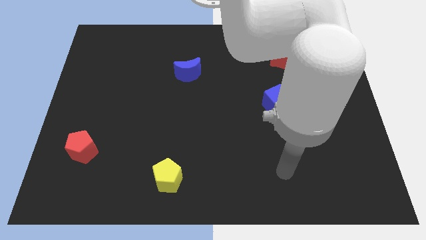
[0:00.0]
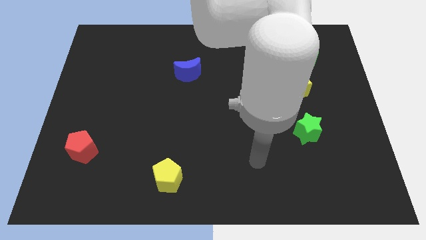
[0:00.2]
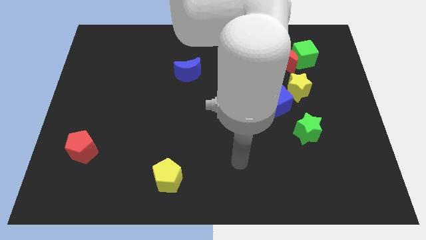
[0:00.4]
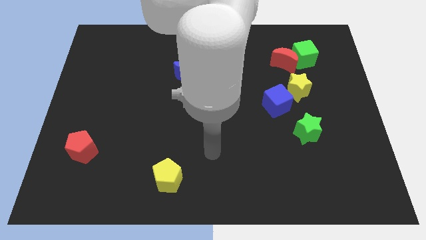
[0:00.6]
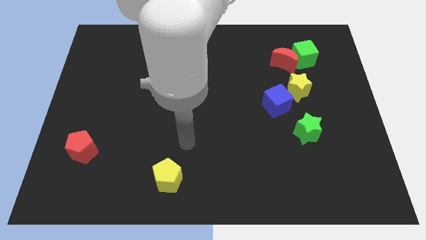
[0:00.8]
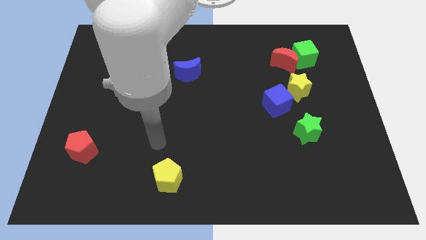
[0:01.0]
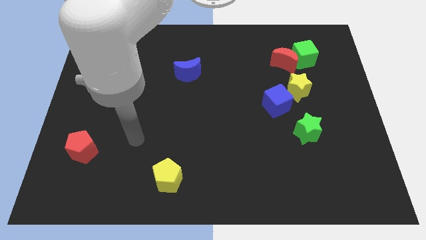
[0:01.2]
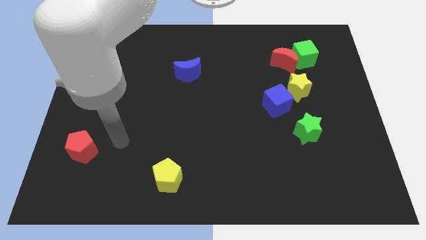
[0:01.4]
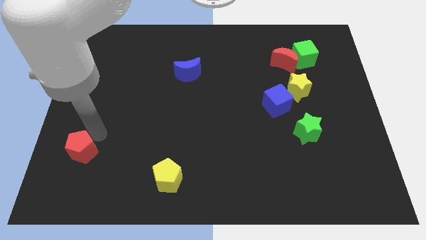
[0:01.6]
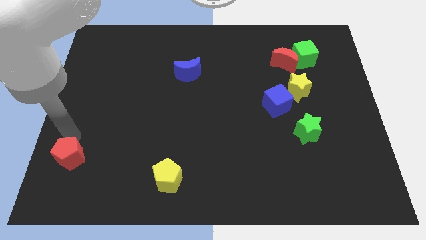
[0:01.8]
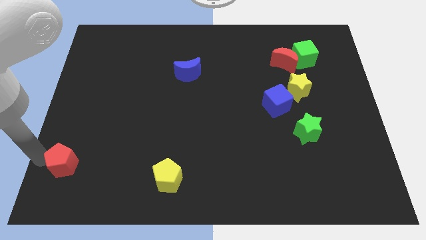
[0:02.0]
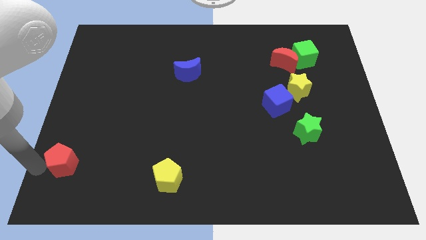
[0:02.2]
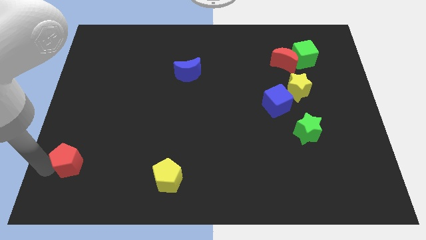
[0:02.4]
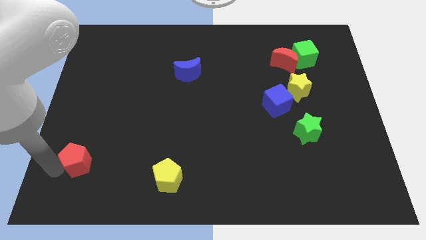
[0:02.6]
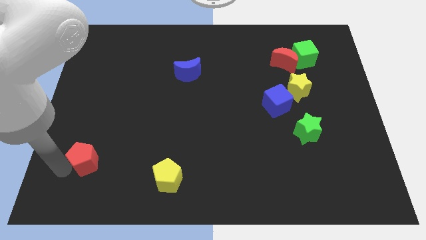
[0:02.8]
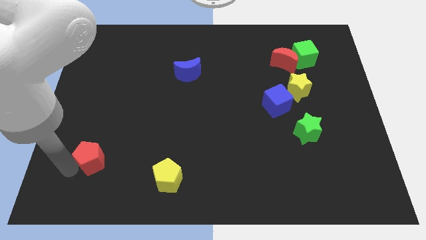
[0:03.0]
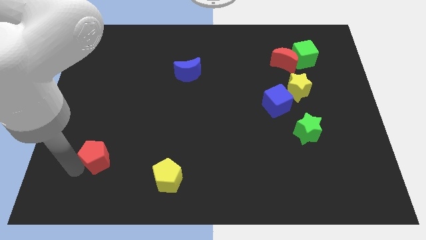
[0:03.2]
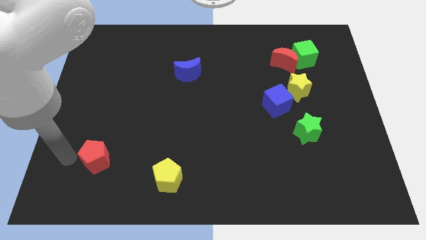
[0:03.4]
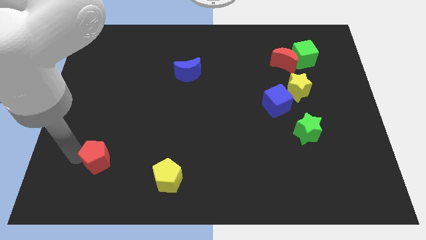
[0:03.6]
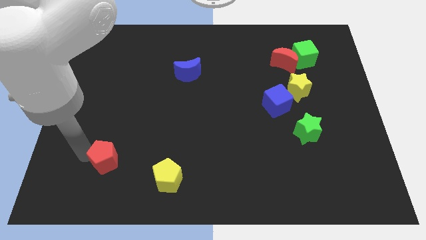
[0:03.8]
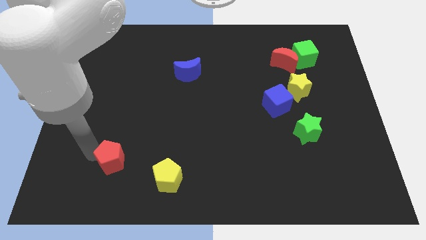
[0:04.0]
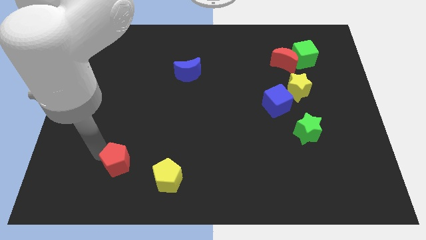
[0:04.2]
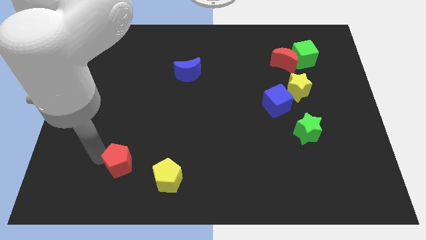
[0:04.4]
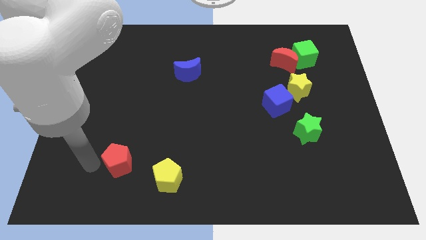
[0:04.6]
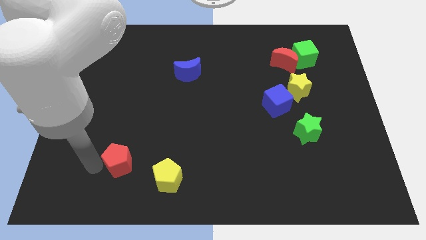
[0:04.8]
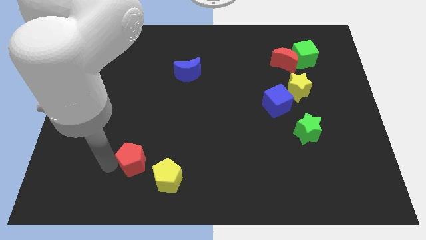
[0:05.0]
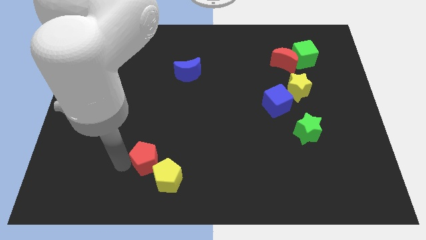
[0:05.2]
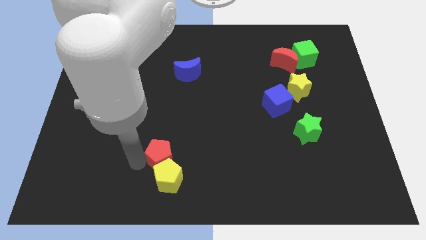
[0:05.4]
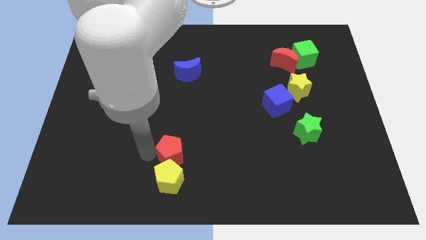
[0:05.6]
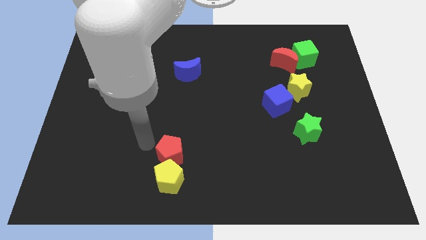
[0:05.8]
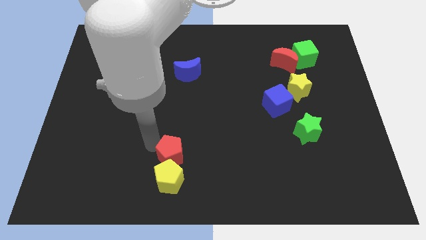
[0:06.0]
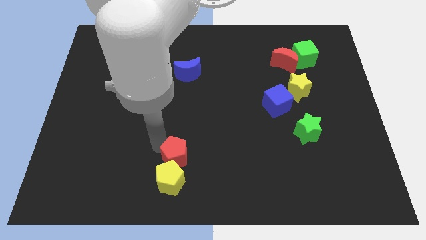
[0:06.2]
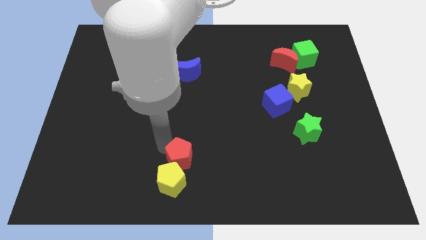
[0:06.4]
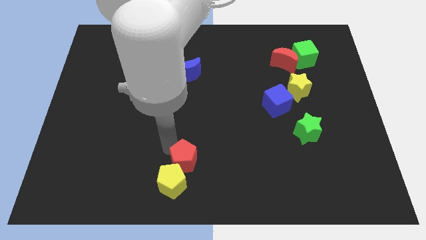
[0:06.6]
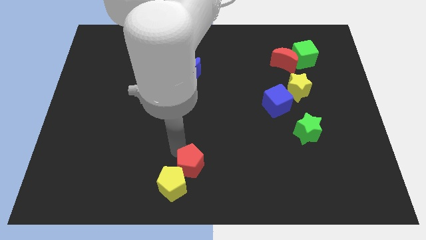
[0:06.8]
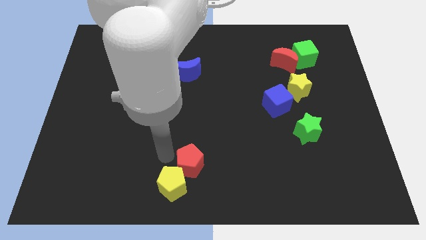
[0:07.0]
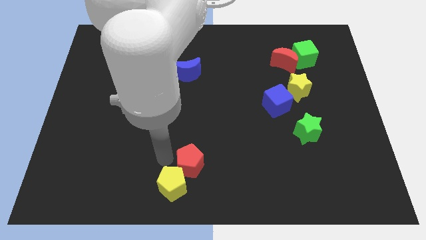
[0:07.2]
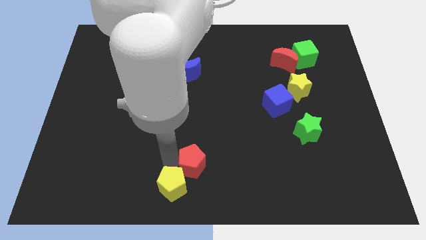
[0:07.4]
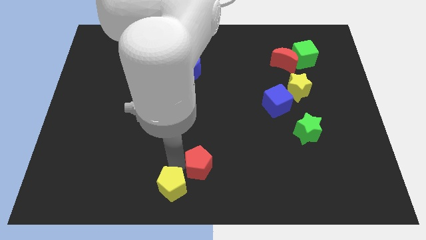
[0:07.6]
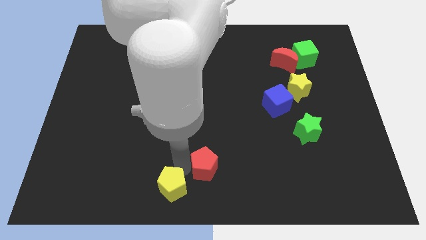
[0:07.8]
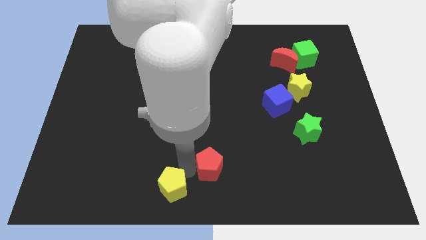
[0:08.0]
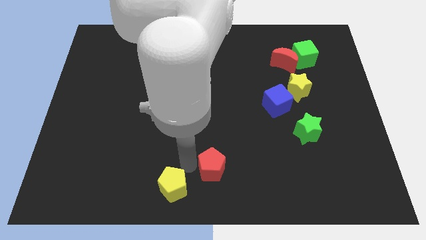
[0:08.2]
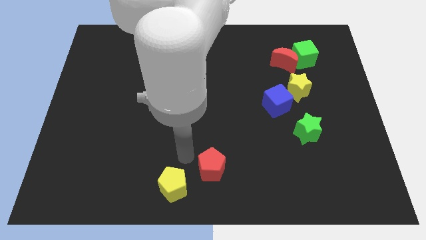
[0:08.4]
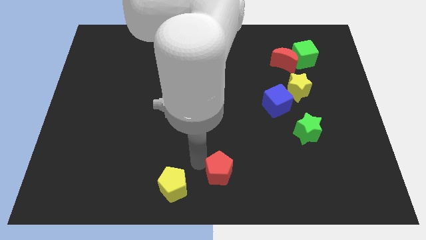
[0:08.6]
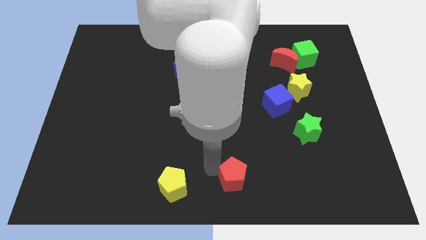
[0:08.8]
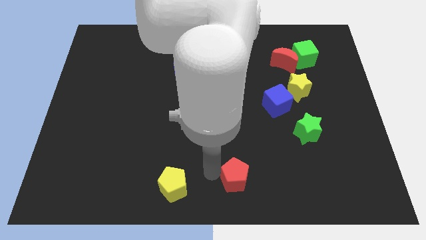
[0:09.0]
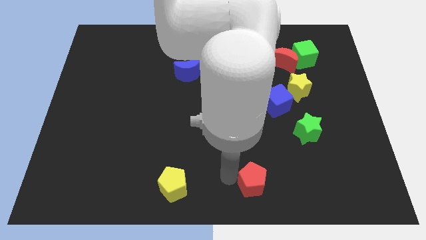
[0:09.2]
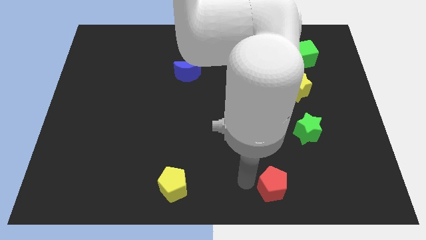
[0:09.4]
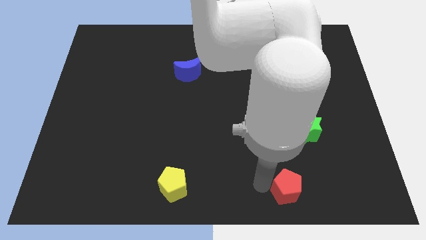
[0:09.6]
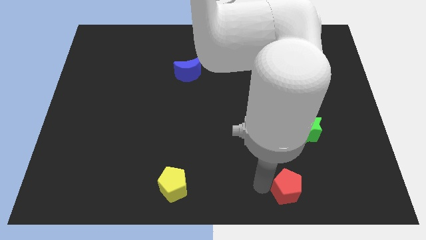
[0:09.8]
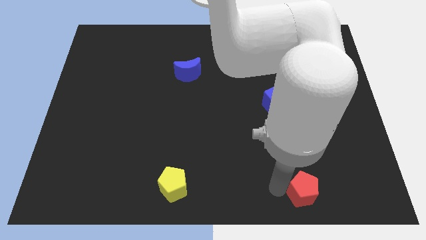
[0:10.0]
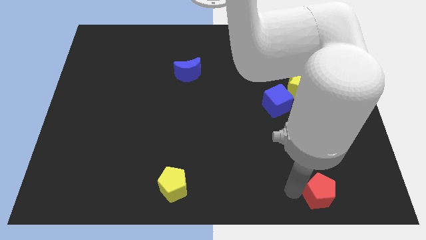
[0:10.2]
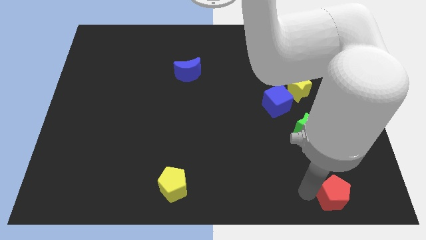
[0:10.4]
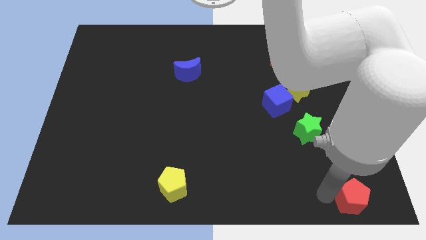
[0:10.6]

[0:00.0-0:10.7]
move the red pentagon to the bottom right

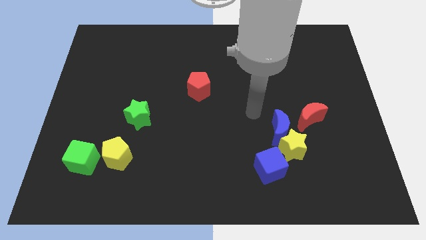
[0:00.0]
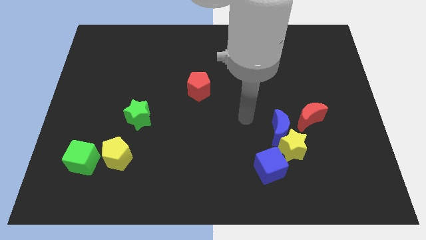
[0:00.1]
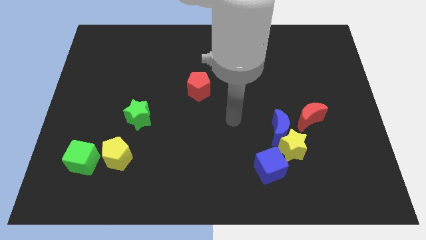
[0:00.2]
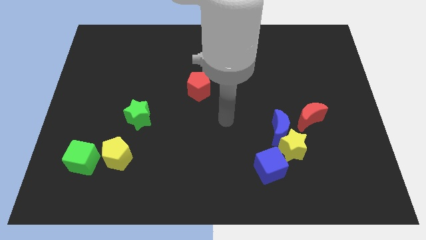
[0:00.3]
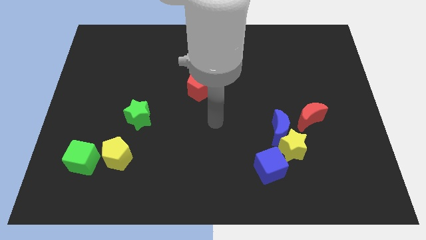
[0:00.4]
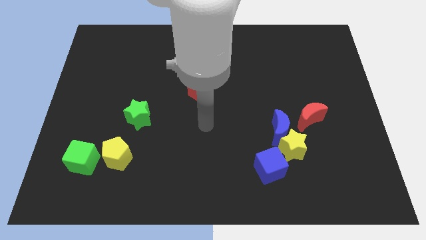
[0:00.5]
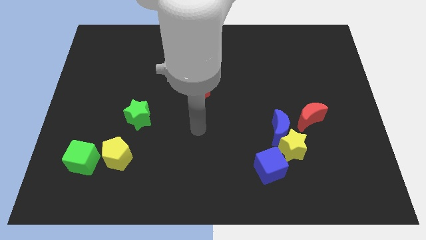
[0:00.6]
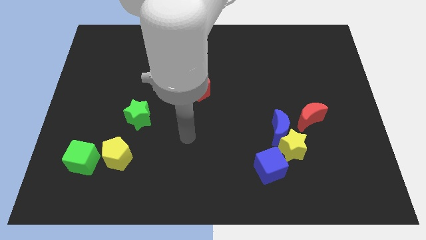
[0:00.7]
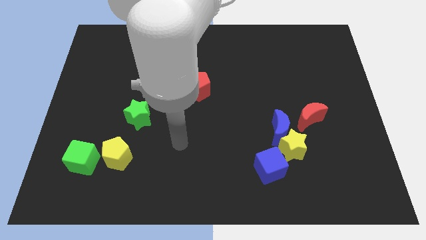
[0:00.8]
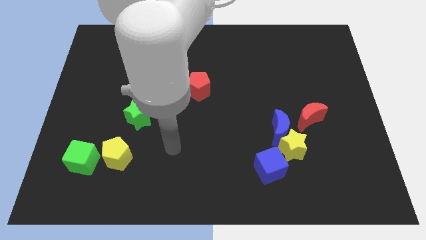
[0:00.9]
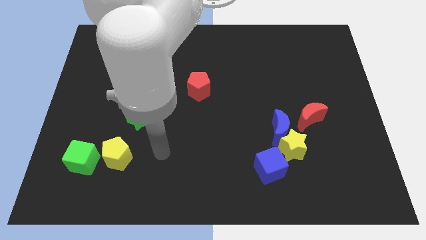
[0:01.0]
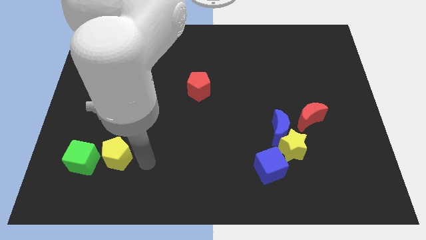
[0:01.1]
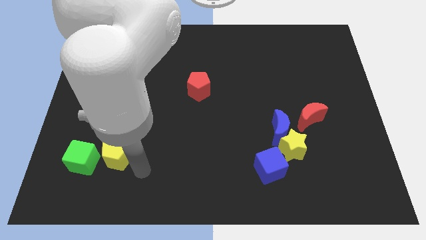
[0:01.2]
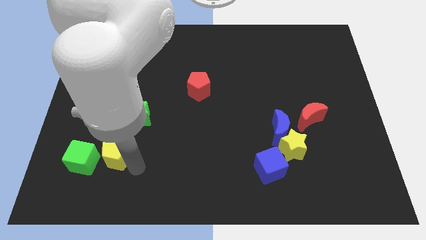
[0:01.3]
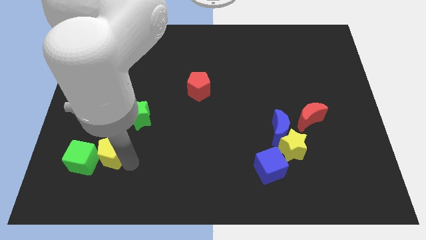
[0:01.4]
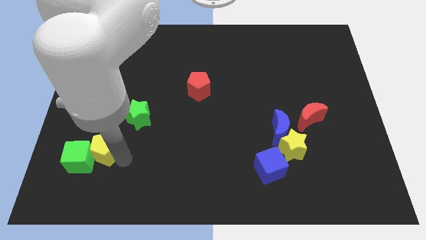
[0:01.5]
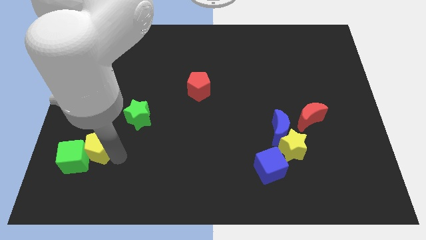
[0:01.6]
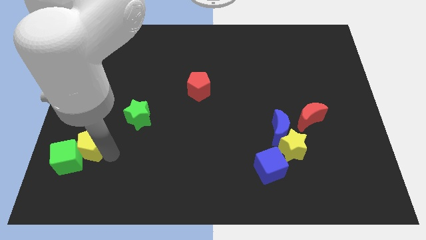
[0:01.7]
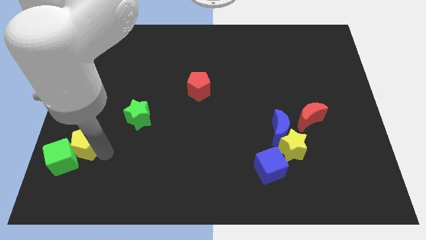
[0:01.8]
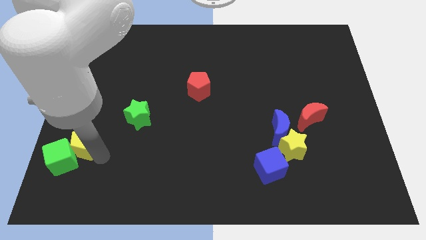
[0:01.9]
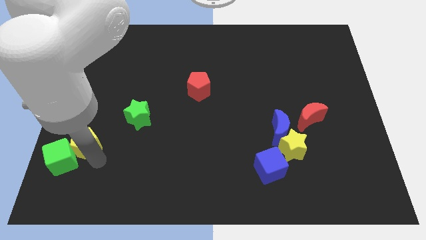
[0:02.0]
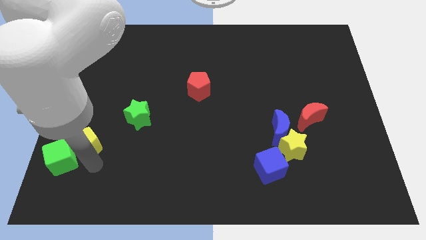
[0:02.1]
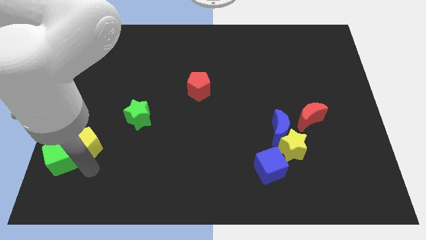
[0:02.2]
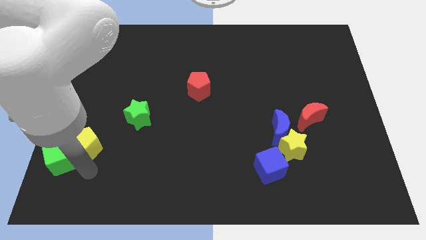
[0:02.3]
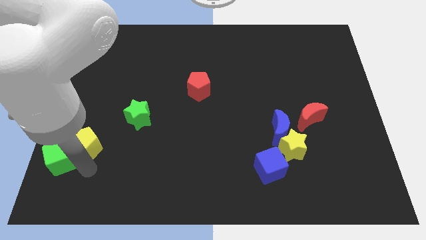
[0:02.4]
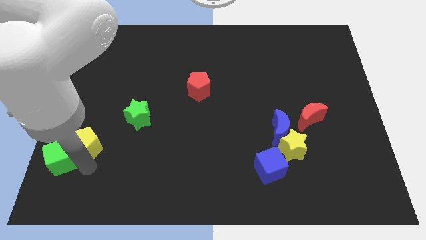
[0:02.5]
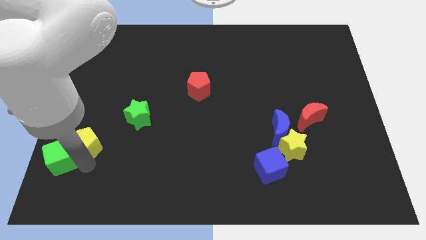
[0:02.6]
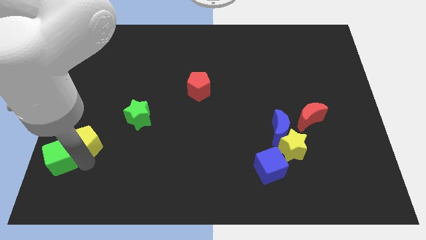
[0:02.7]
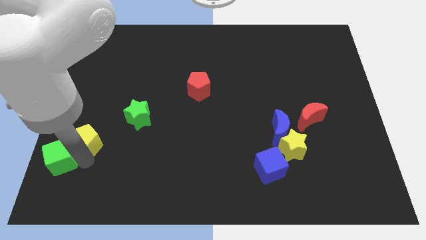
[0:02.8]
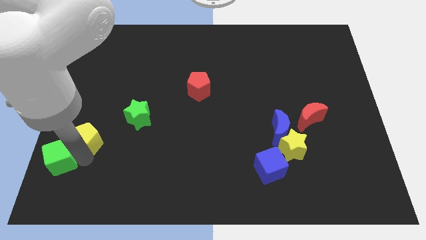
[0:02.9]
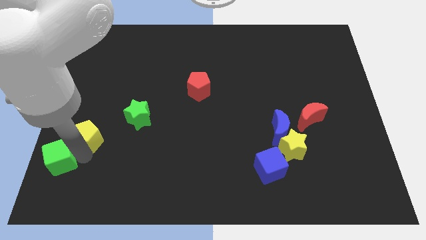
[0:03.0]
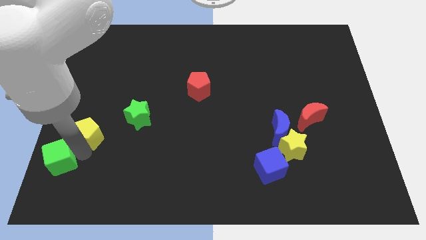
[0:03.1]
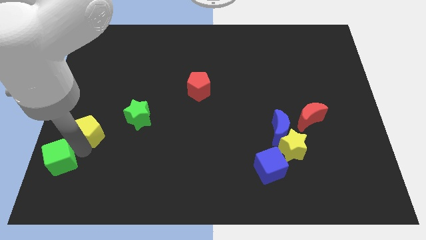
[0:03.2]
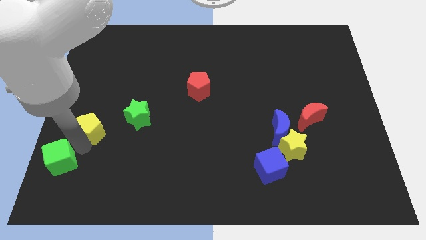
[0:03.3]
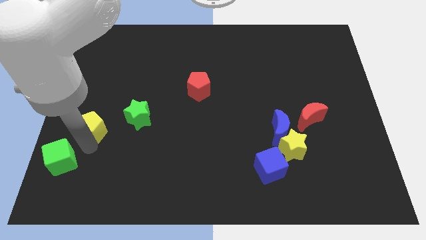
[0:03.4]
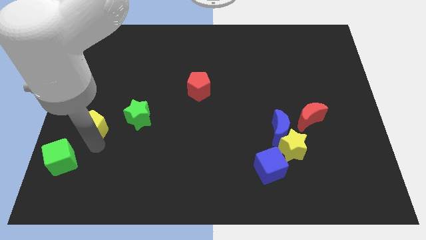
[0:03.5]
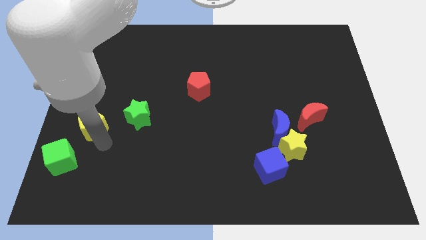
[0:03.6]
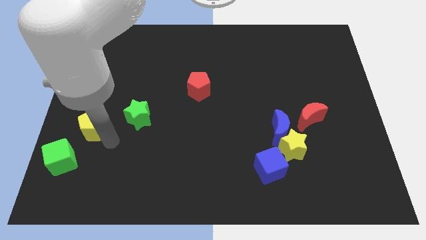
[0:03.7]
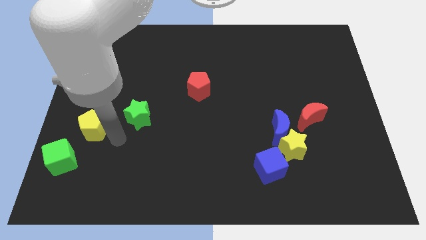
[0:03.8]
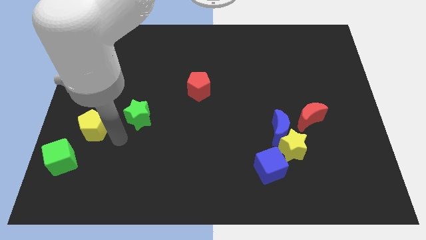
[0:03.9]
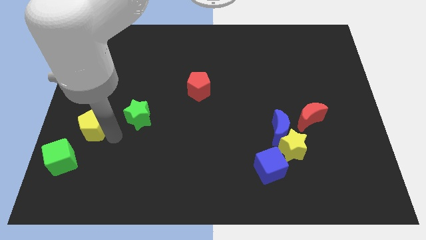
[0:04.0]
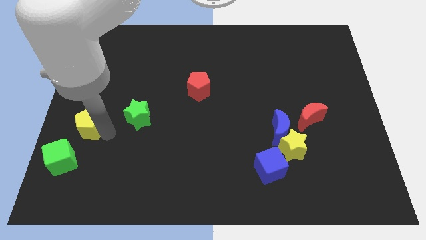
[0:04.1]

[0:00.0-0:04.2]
slide the yellow pentagon to the left side of the board
